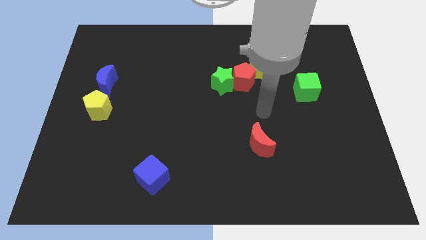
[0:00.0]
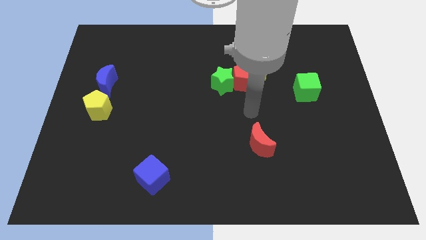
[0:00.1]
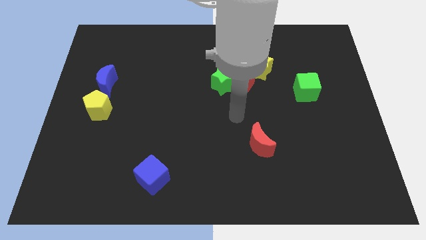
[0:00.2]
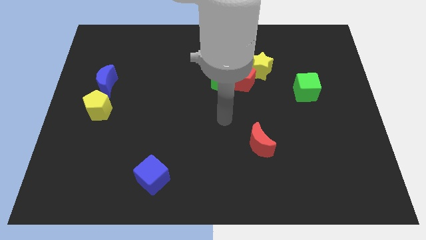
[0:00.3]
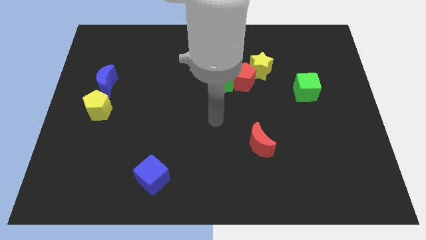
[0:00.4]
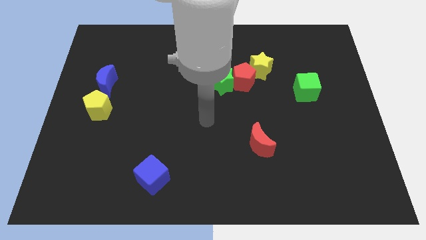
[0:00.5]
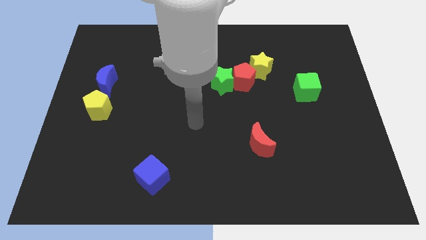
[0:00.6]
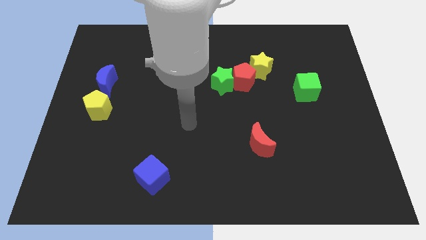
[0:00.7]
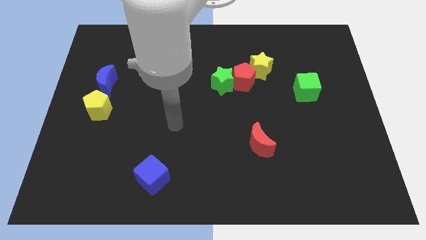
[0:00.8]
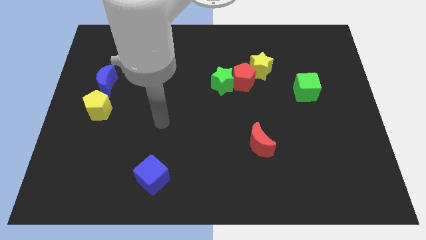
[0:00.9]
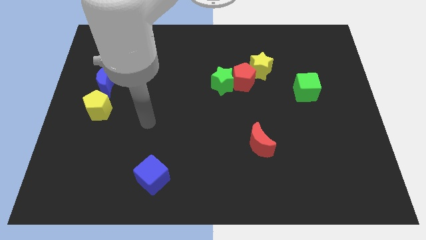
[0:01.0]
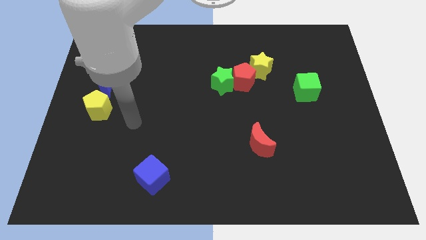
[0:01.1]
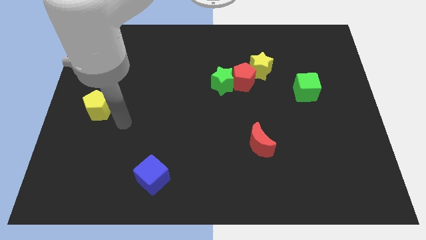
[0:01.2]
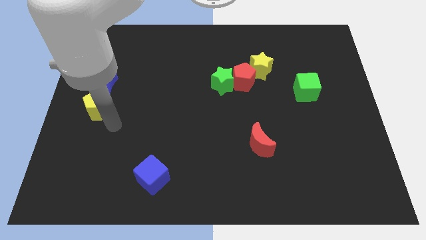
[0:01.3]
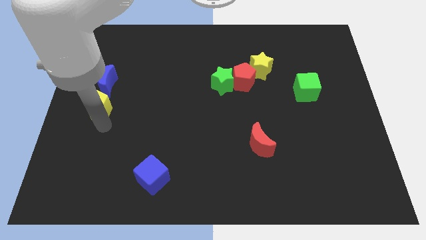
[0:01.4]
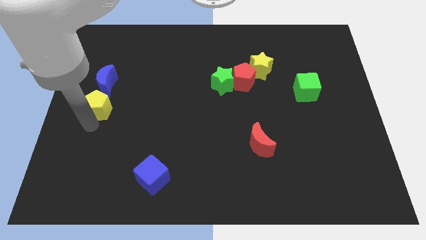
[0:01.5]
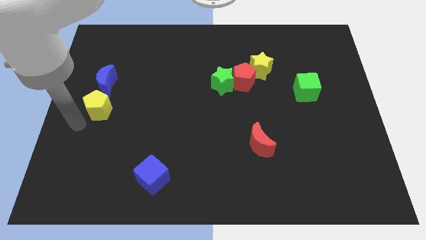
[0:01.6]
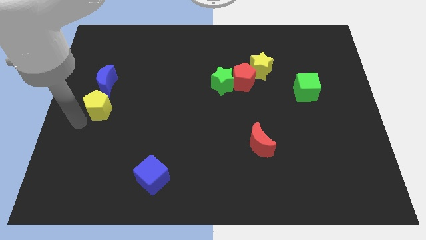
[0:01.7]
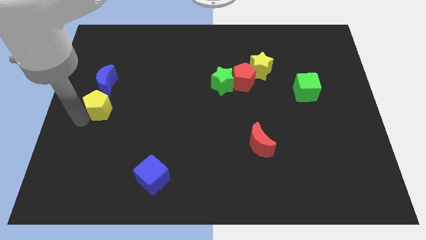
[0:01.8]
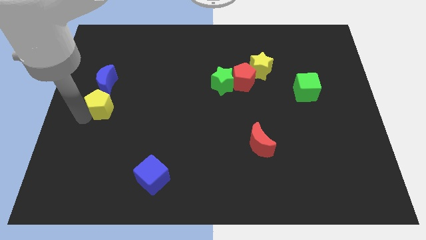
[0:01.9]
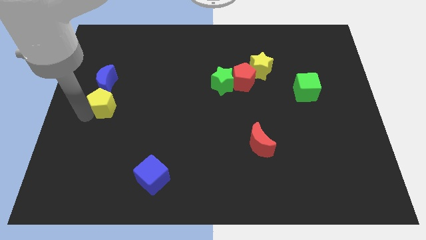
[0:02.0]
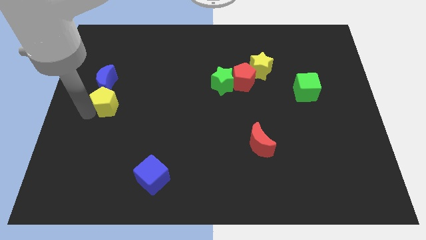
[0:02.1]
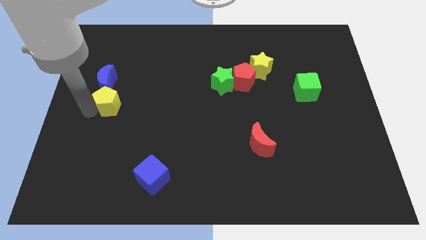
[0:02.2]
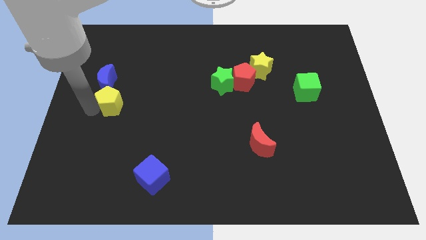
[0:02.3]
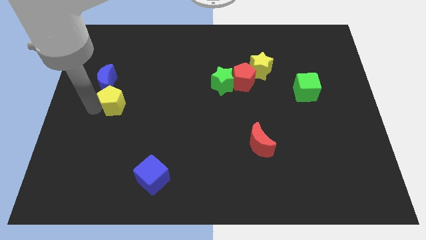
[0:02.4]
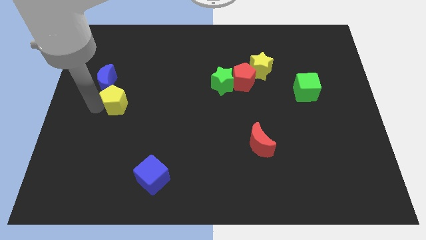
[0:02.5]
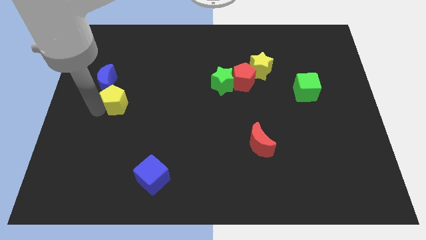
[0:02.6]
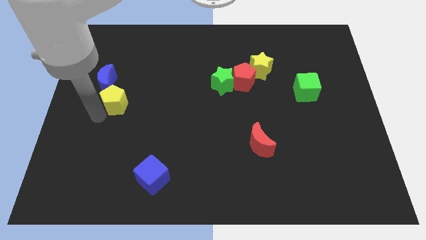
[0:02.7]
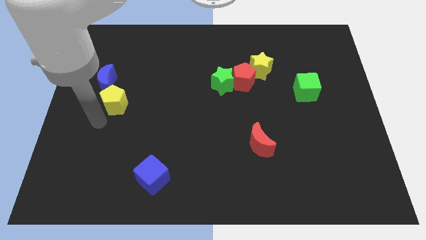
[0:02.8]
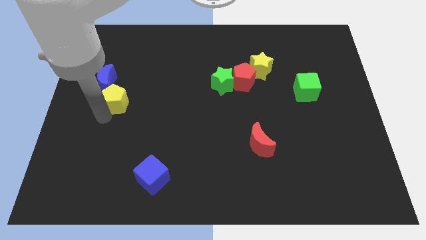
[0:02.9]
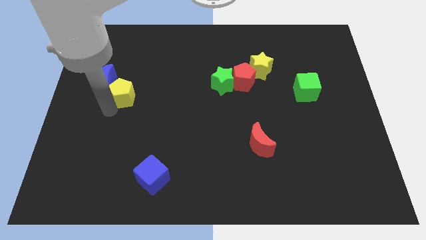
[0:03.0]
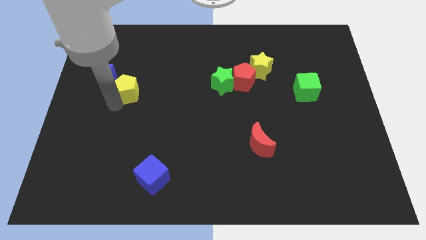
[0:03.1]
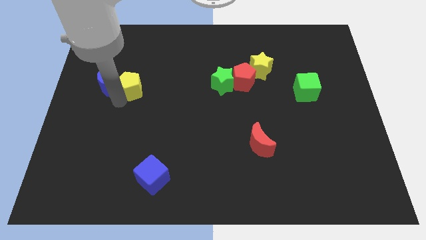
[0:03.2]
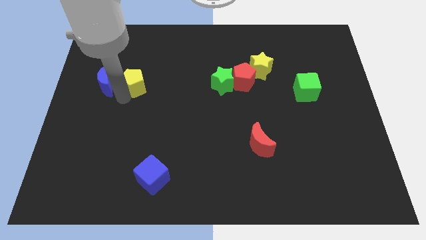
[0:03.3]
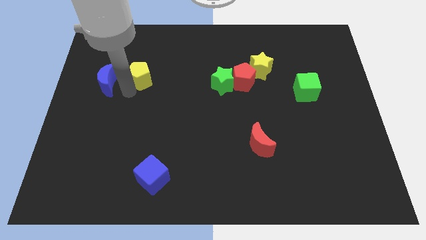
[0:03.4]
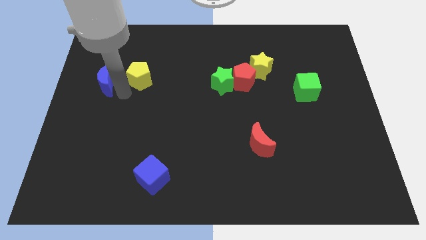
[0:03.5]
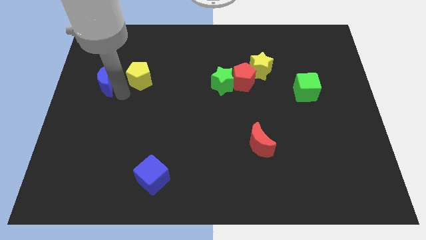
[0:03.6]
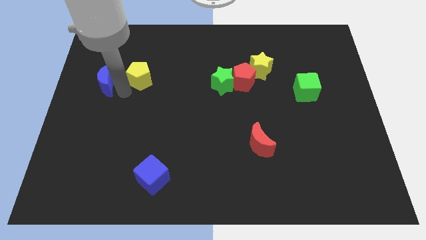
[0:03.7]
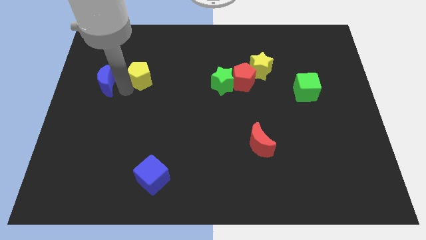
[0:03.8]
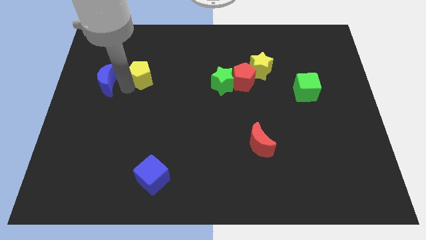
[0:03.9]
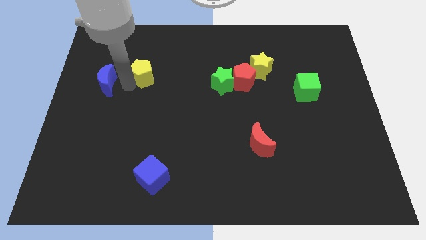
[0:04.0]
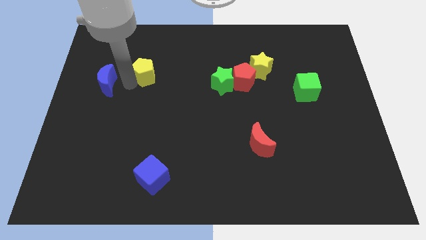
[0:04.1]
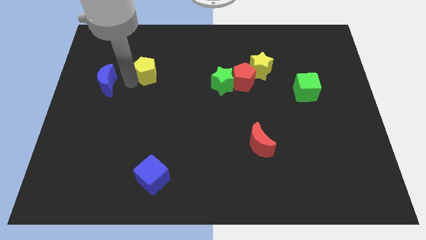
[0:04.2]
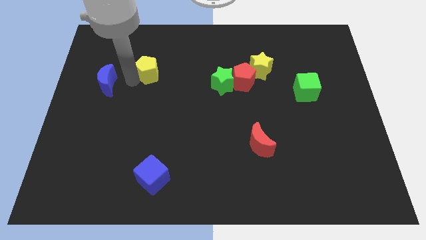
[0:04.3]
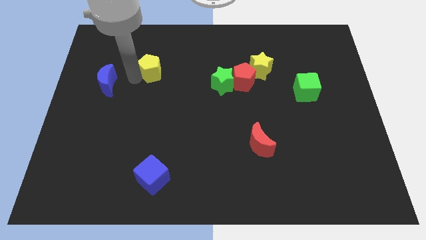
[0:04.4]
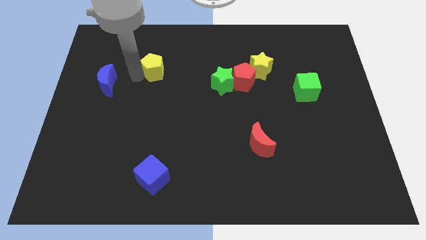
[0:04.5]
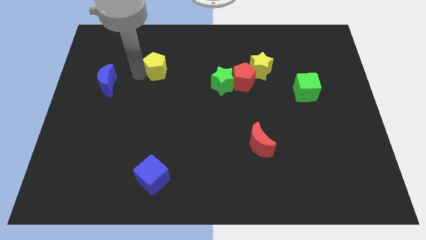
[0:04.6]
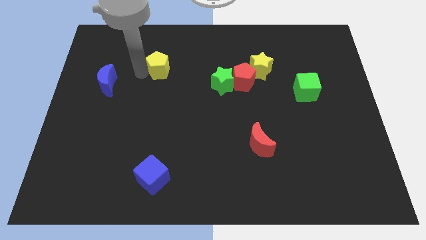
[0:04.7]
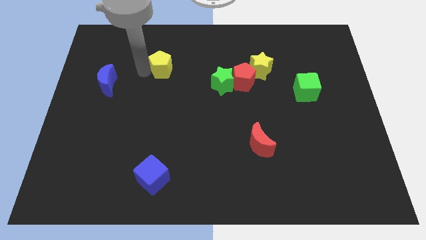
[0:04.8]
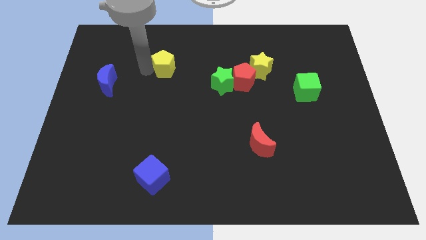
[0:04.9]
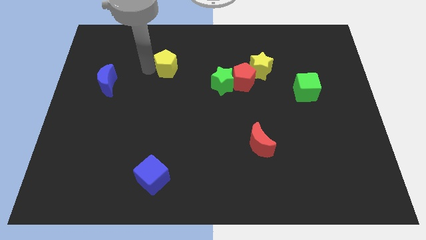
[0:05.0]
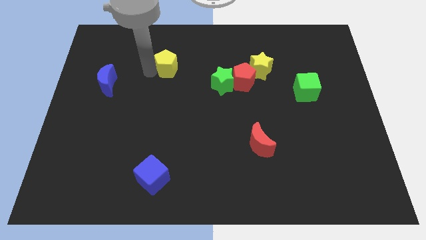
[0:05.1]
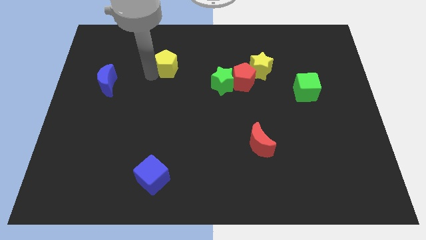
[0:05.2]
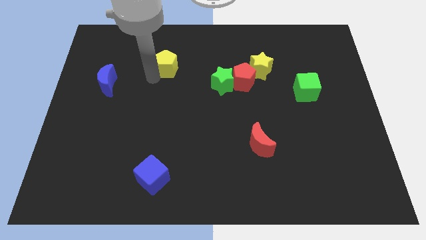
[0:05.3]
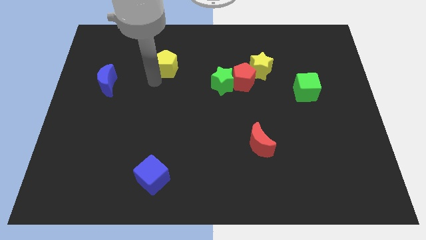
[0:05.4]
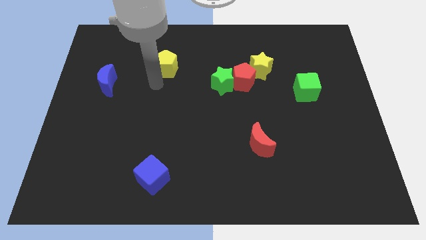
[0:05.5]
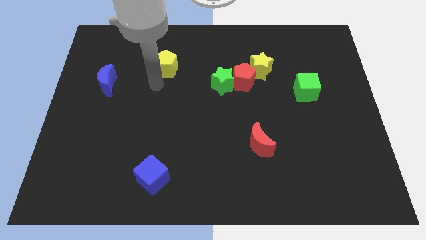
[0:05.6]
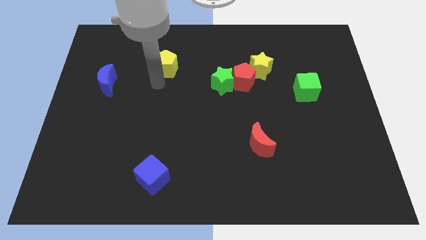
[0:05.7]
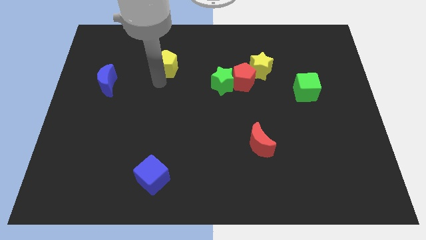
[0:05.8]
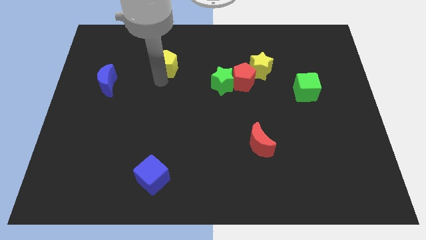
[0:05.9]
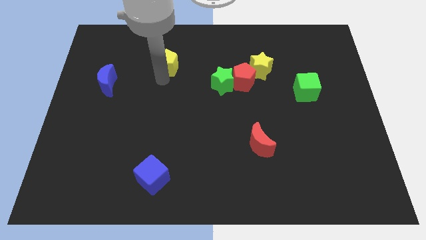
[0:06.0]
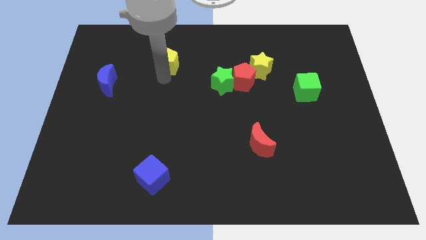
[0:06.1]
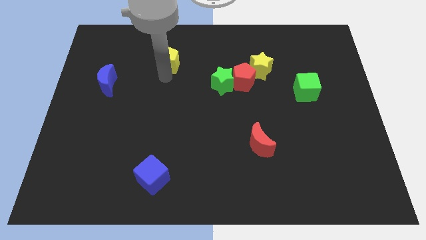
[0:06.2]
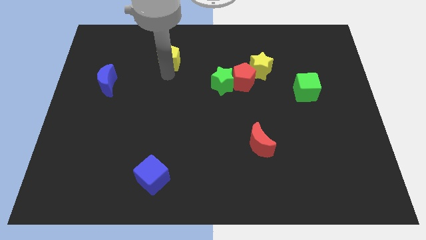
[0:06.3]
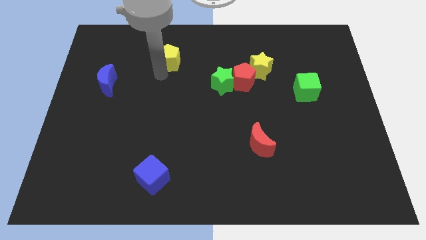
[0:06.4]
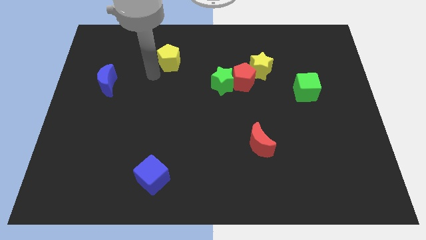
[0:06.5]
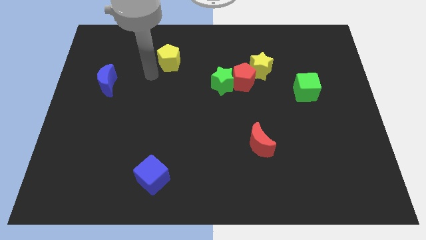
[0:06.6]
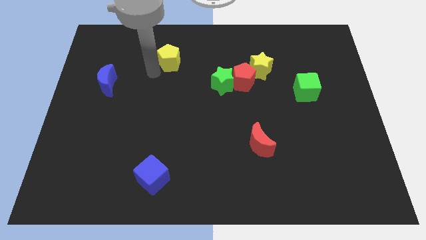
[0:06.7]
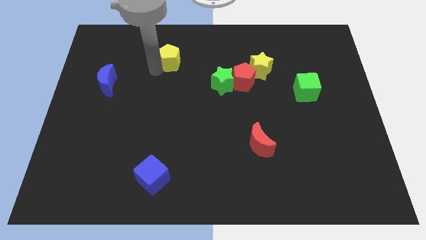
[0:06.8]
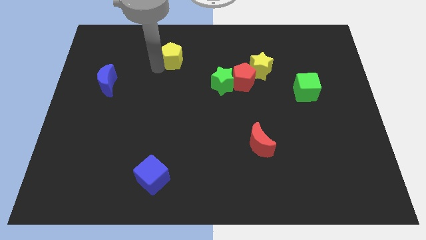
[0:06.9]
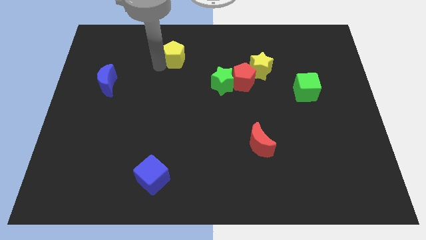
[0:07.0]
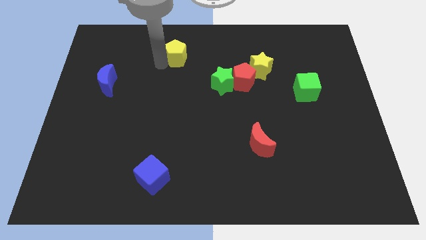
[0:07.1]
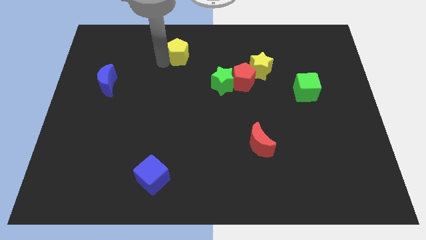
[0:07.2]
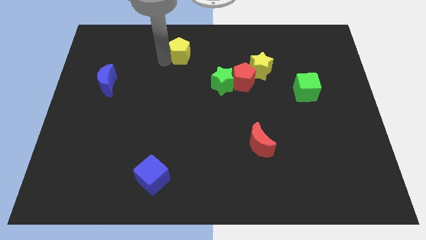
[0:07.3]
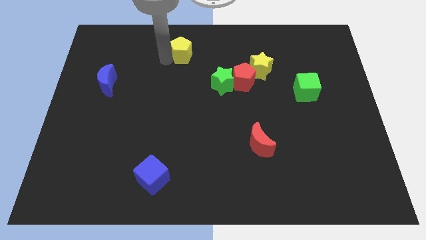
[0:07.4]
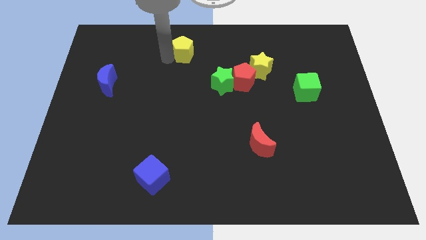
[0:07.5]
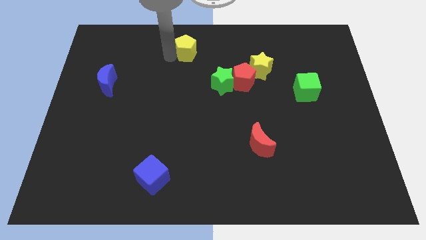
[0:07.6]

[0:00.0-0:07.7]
slide the yellow pentagon to the towards your base
